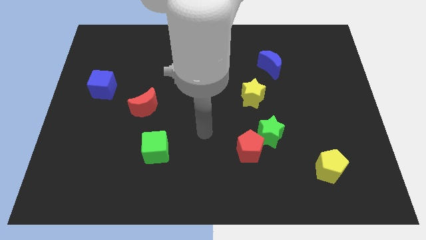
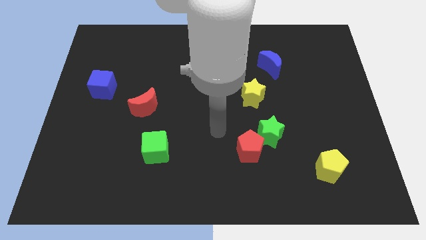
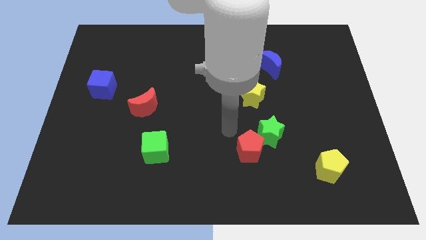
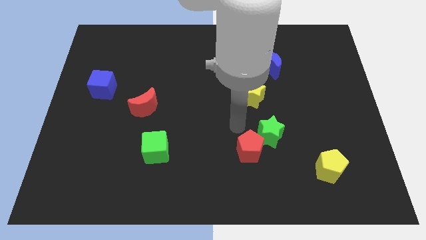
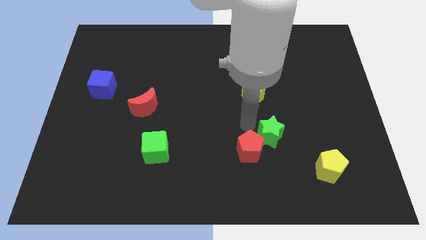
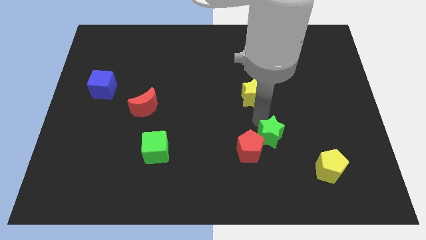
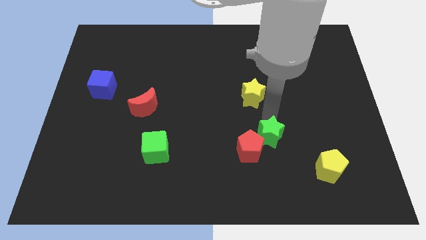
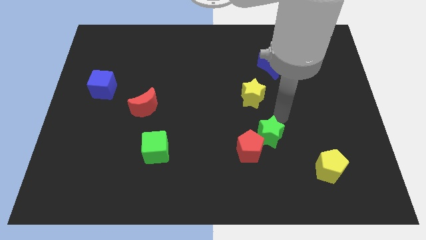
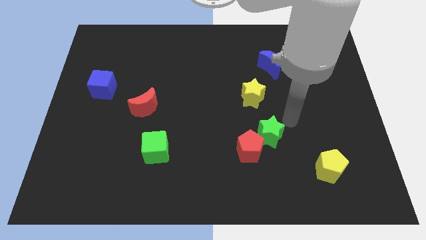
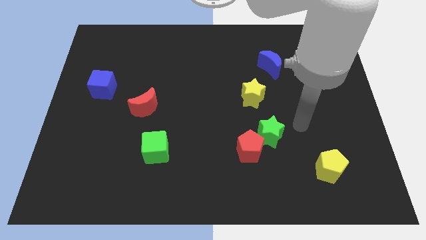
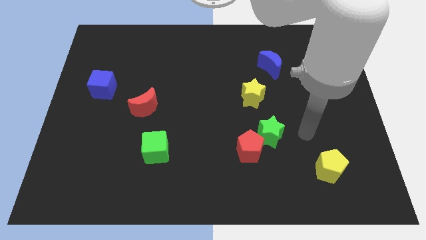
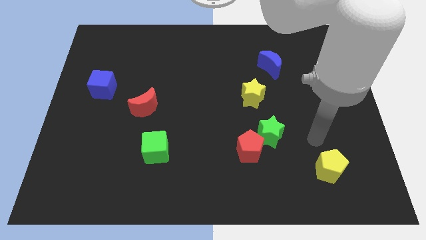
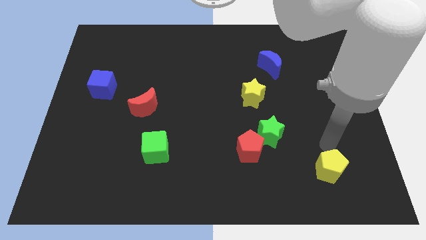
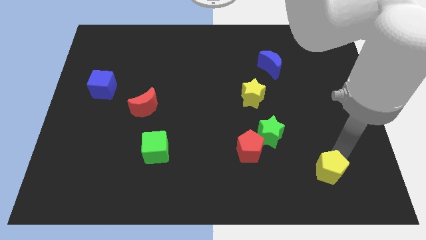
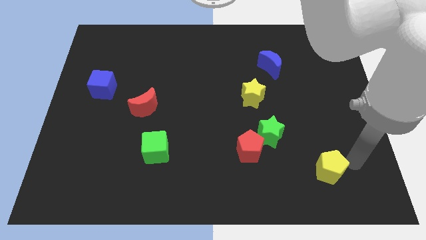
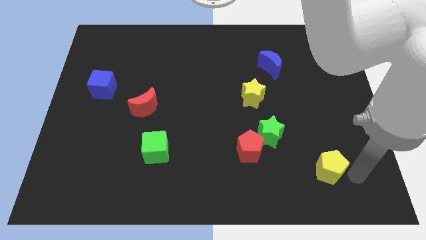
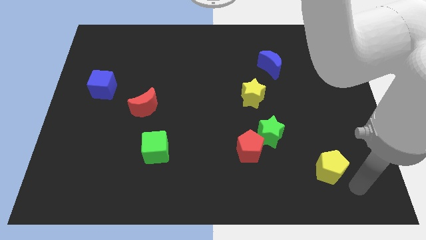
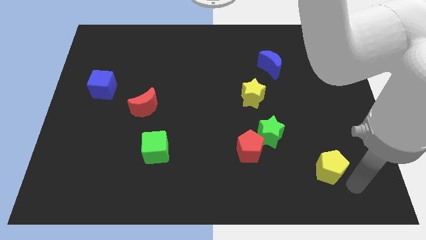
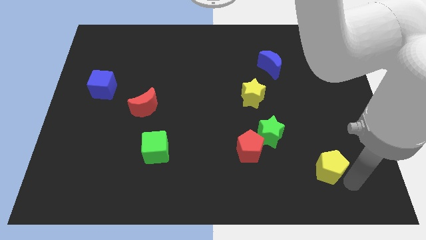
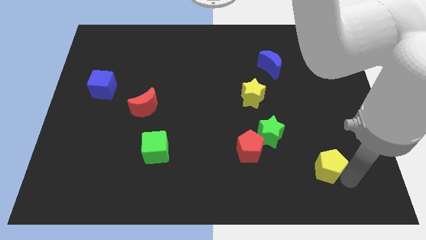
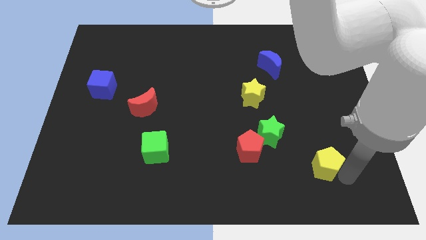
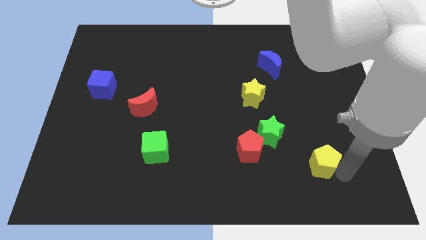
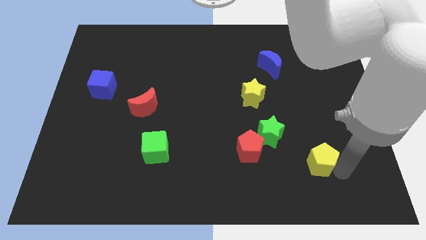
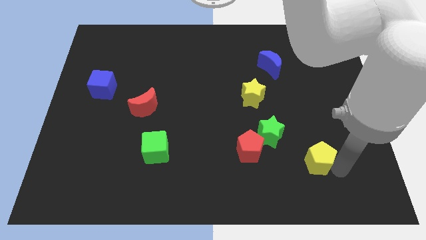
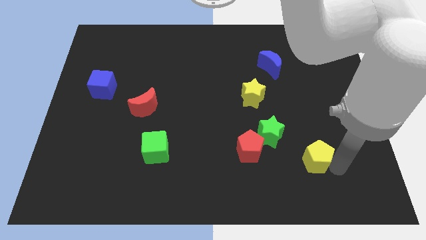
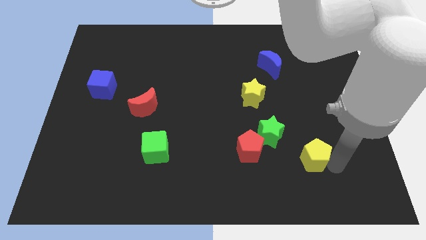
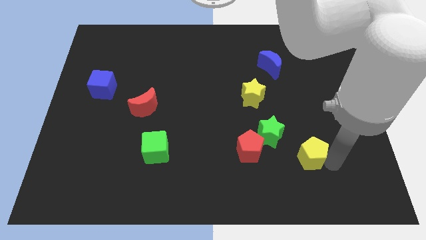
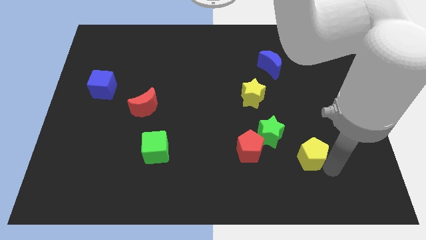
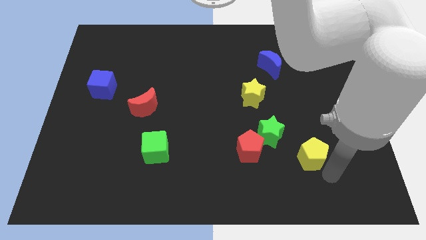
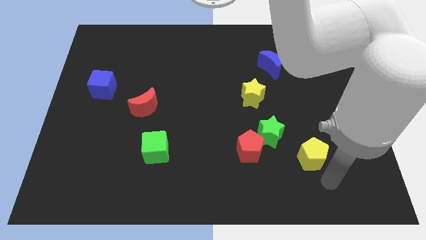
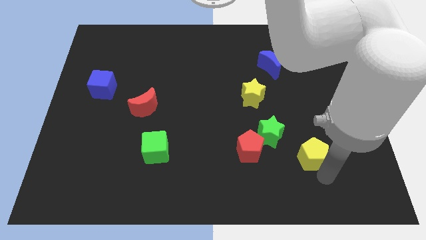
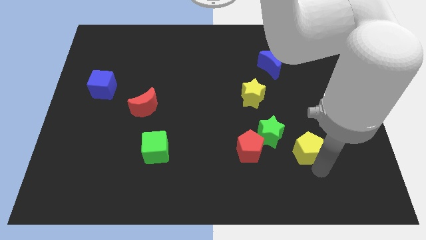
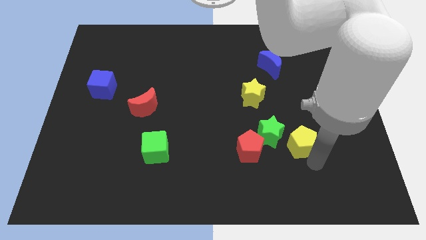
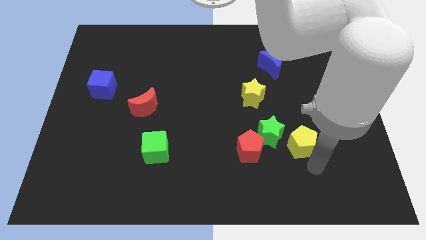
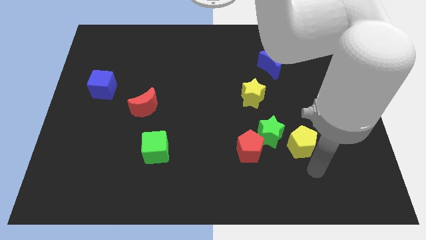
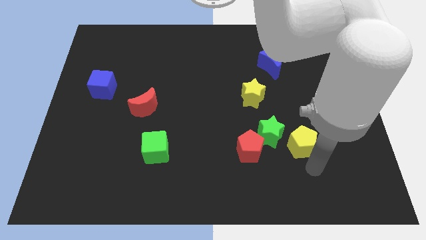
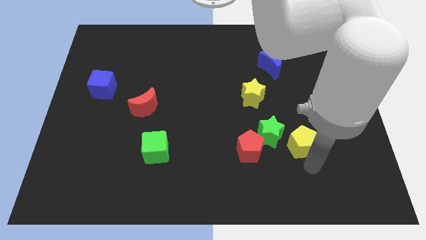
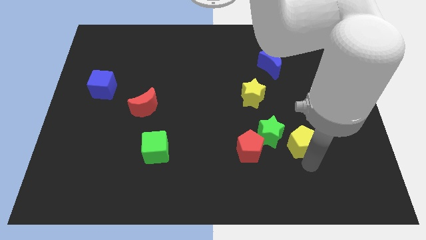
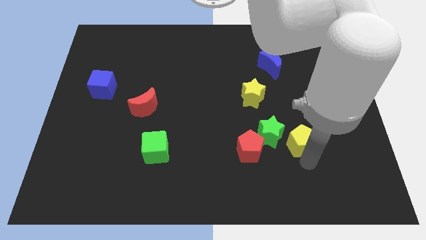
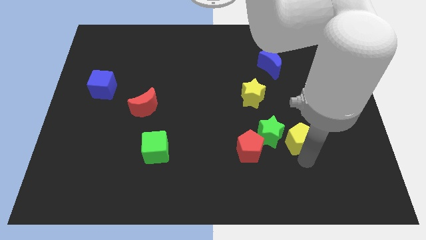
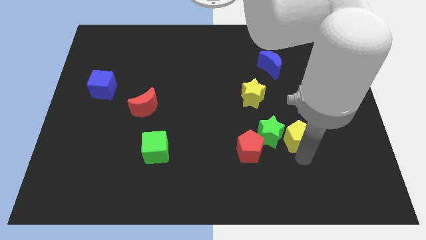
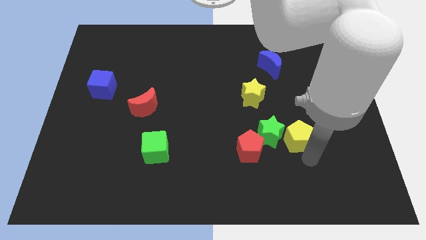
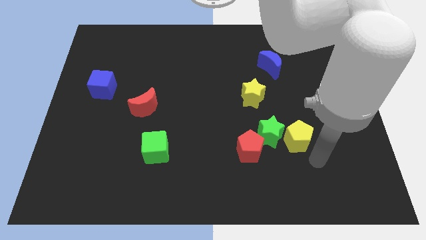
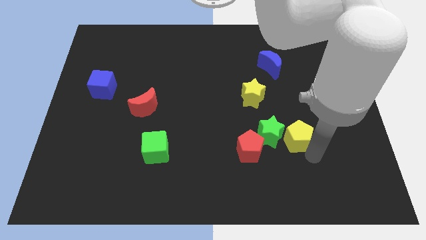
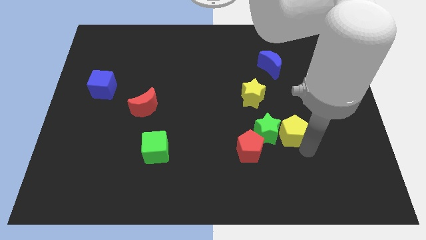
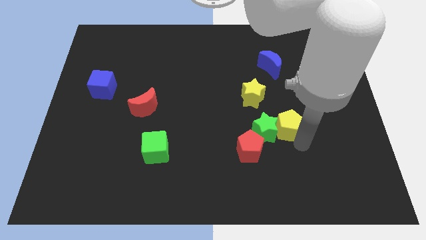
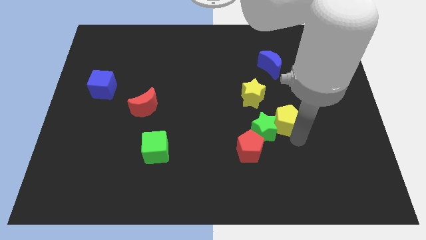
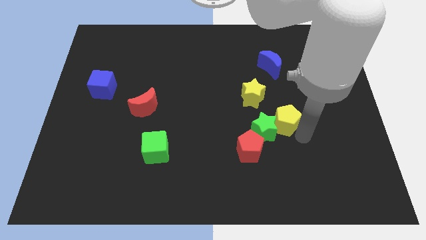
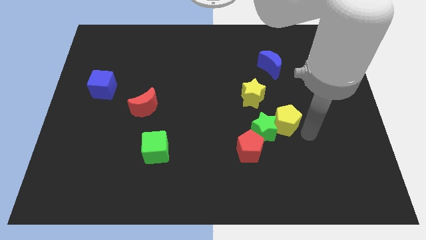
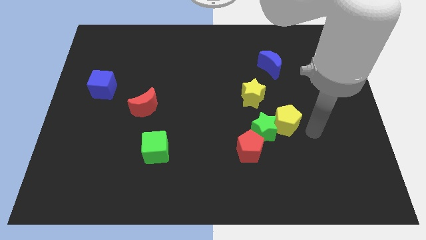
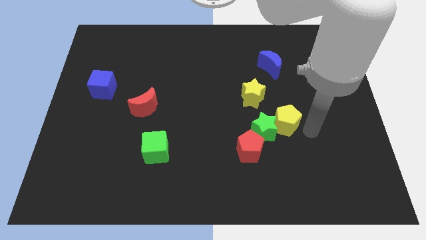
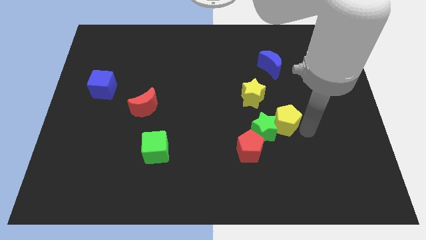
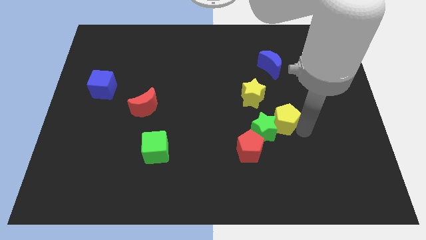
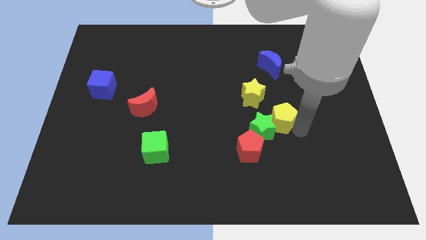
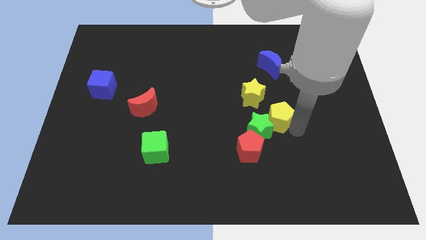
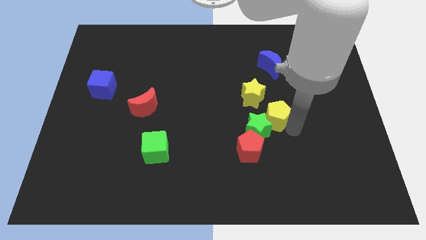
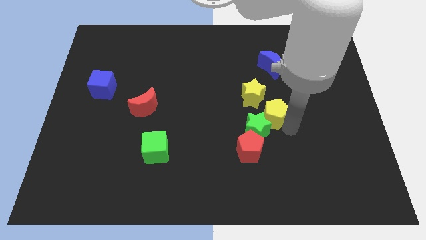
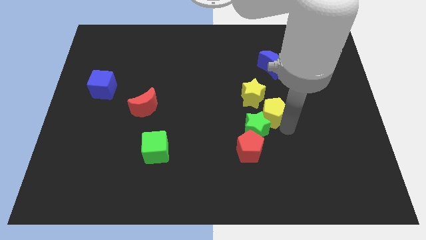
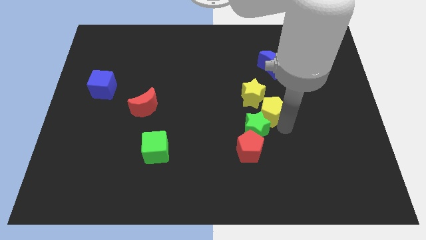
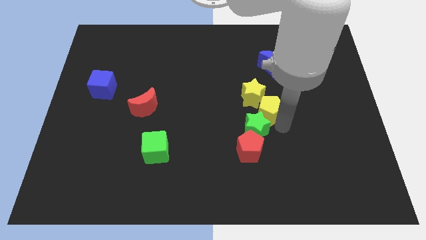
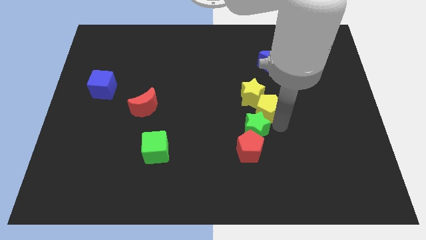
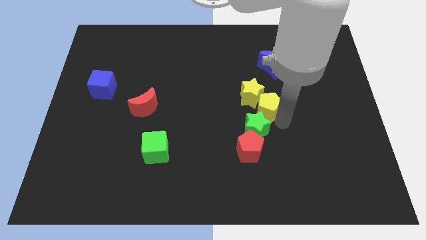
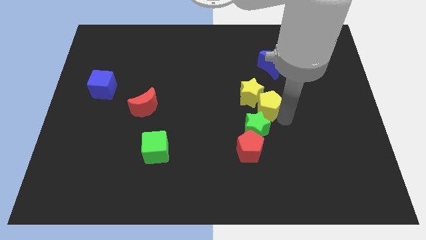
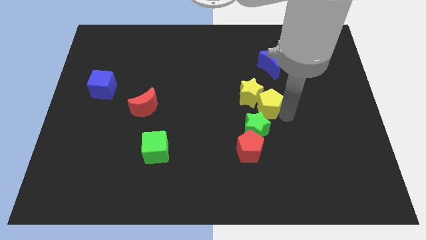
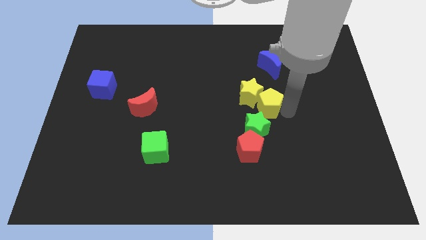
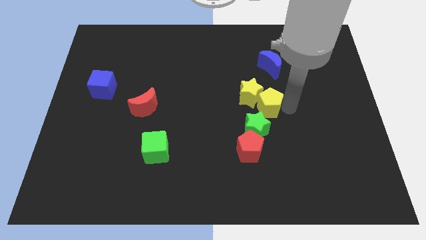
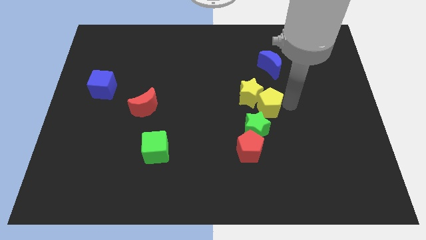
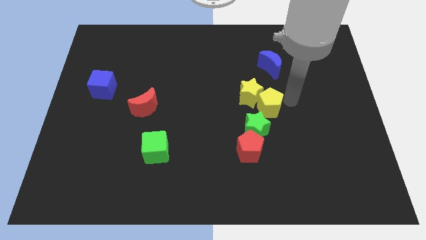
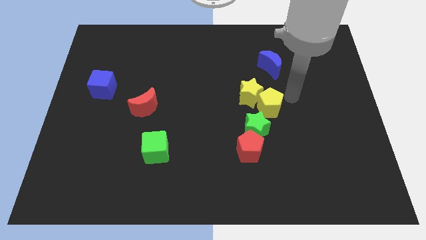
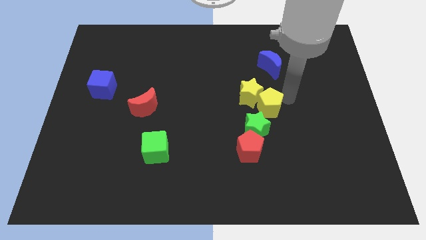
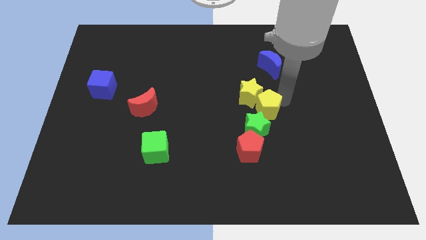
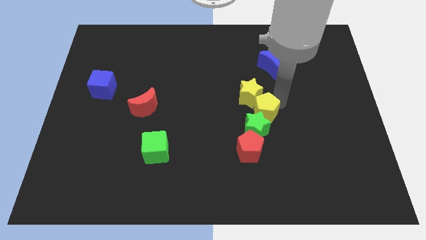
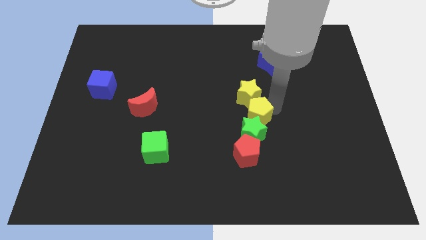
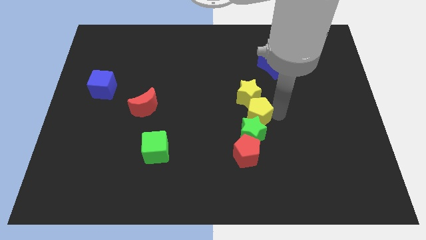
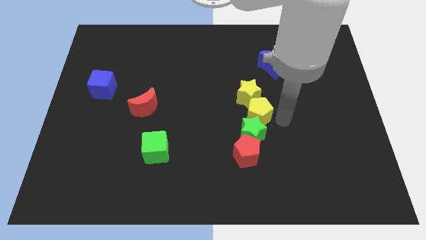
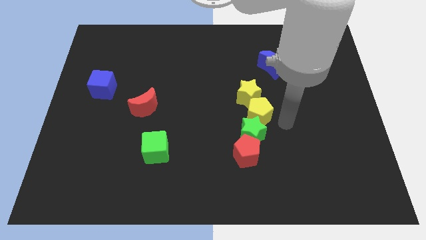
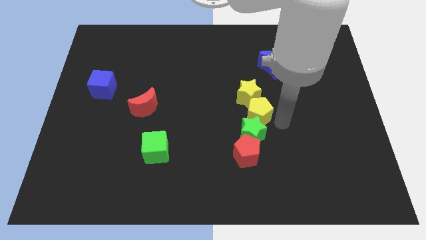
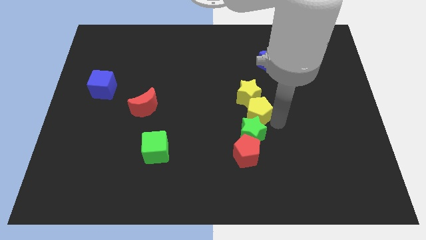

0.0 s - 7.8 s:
slide the yellow pentagon diagonally upwards and left
